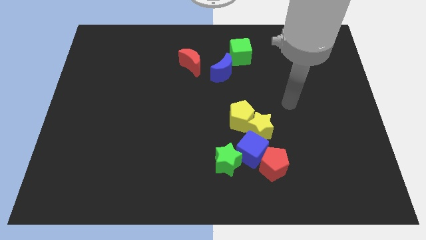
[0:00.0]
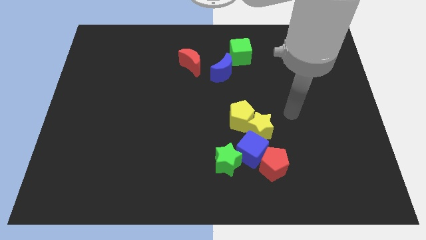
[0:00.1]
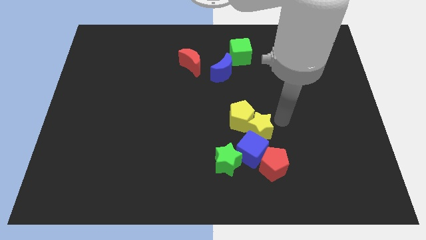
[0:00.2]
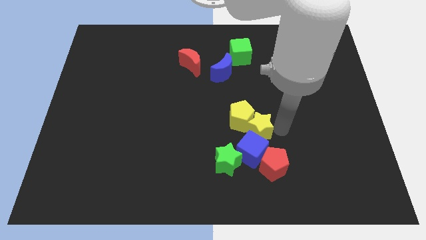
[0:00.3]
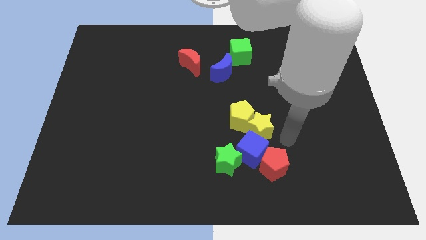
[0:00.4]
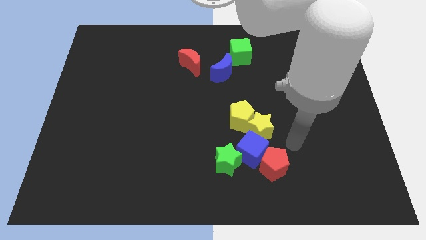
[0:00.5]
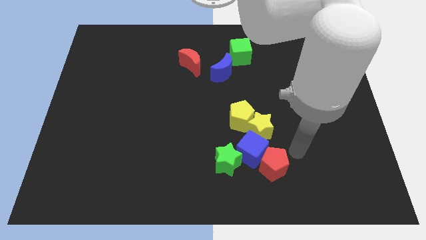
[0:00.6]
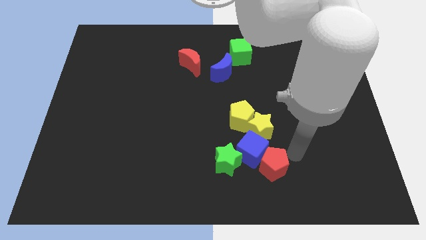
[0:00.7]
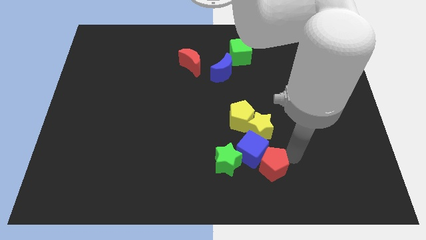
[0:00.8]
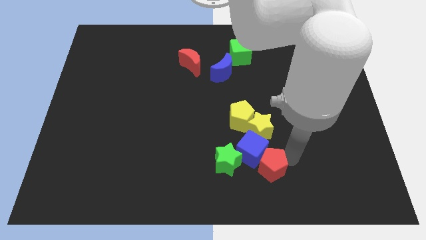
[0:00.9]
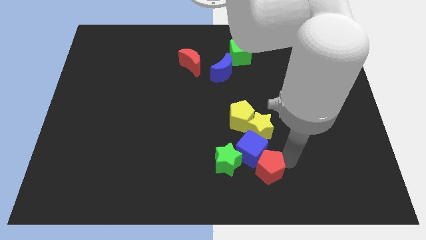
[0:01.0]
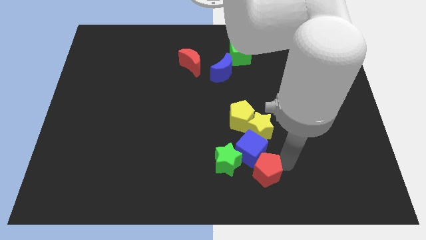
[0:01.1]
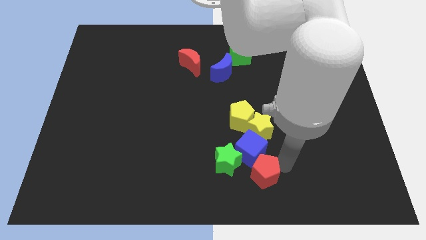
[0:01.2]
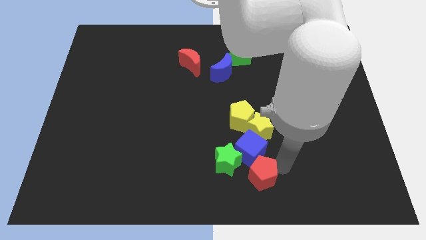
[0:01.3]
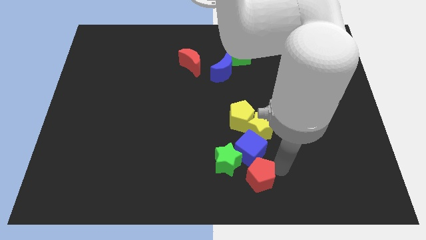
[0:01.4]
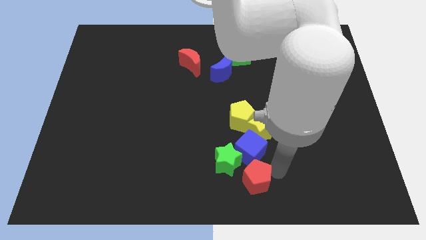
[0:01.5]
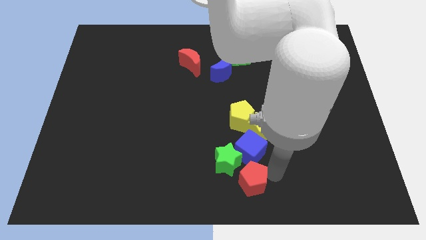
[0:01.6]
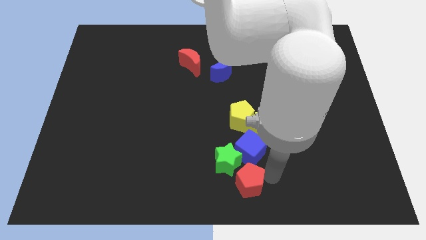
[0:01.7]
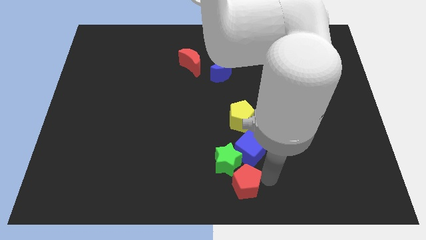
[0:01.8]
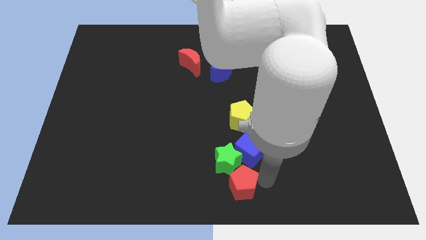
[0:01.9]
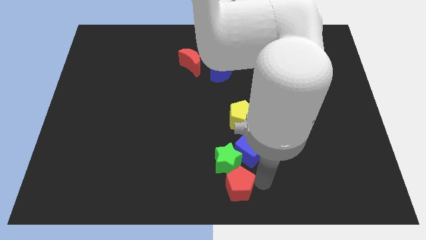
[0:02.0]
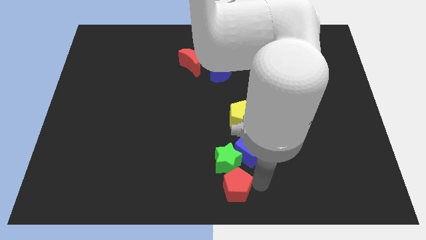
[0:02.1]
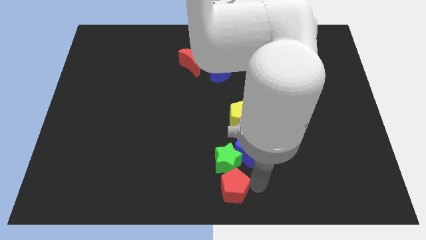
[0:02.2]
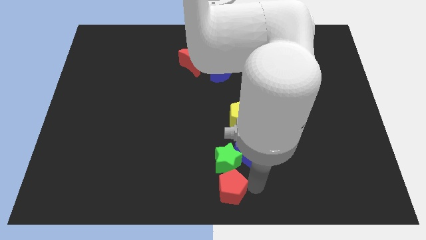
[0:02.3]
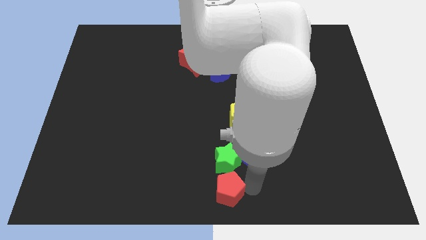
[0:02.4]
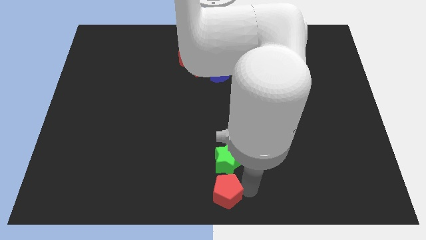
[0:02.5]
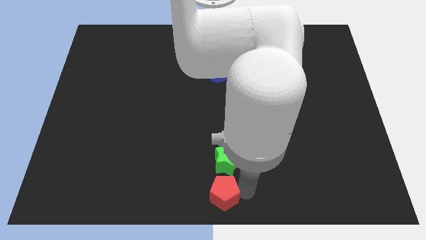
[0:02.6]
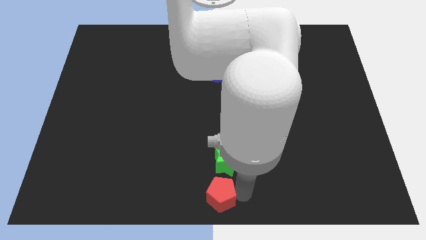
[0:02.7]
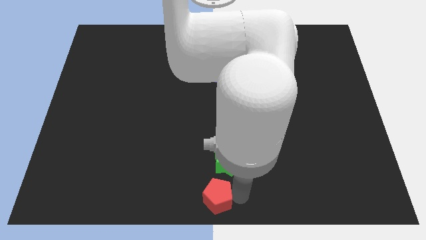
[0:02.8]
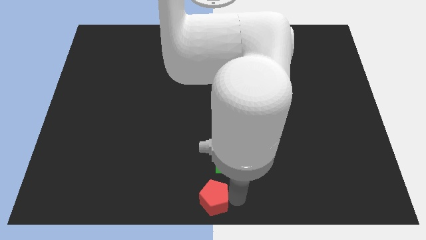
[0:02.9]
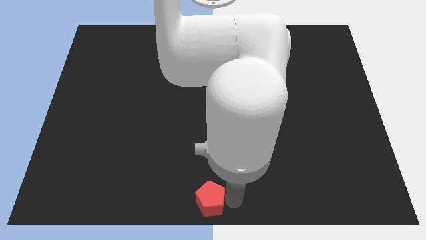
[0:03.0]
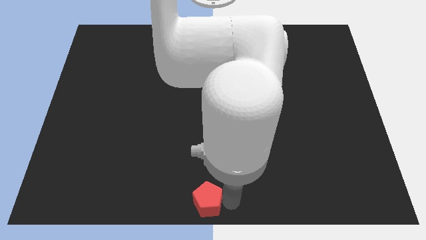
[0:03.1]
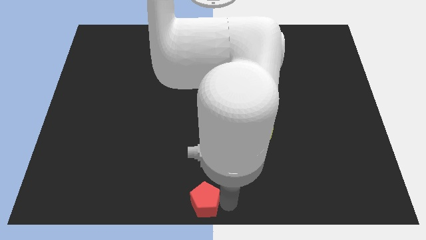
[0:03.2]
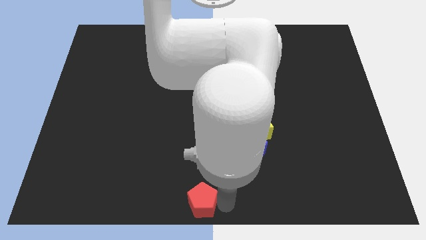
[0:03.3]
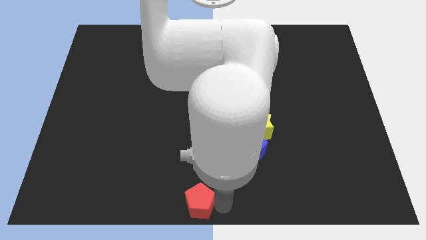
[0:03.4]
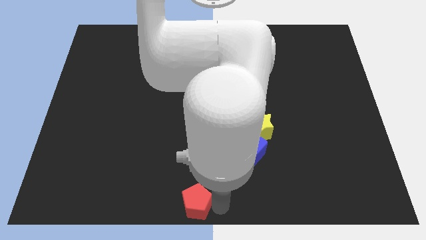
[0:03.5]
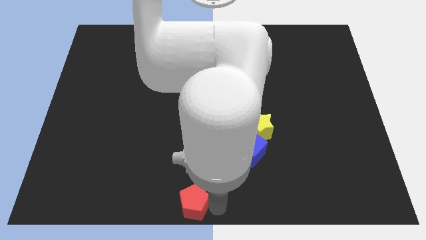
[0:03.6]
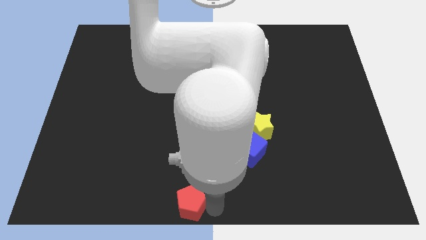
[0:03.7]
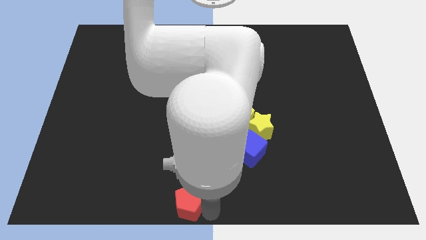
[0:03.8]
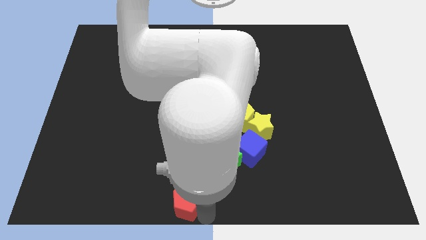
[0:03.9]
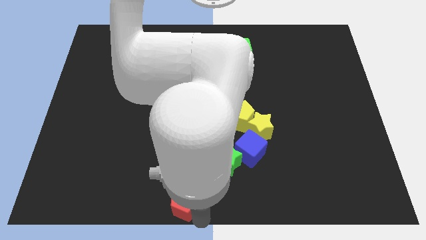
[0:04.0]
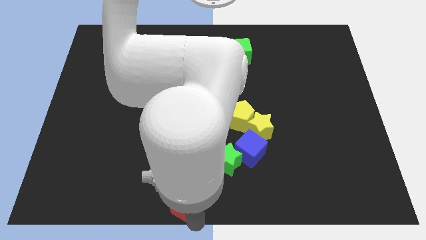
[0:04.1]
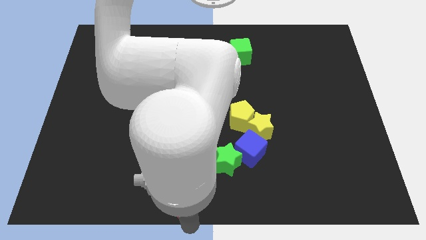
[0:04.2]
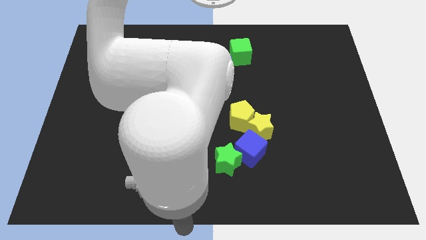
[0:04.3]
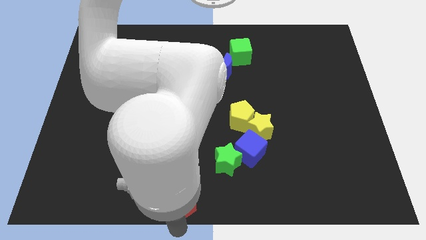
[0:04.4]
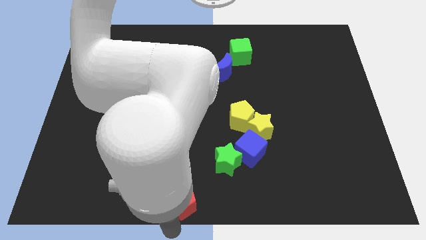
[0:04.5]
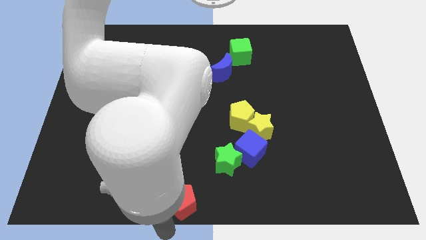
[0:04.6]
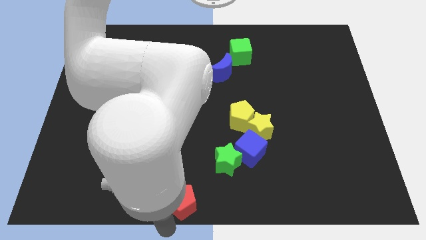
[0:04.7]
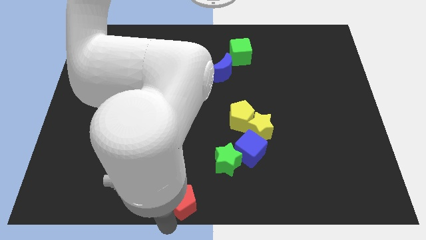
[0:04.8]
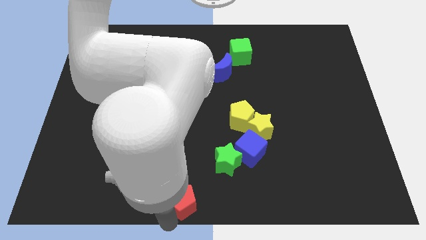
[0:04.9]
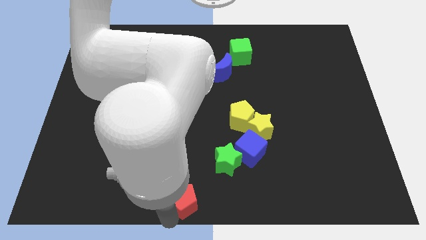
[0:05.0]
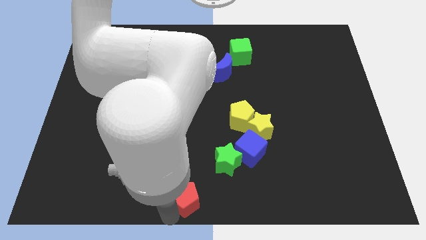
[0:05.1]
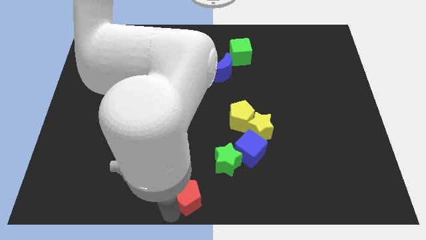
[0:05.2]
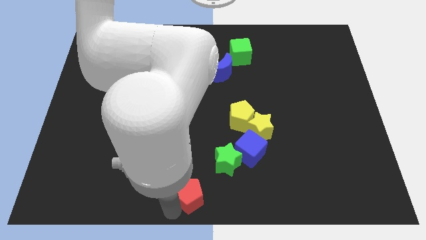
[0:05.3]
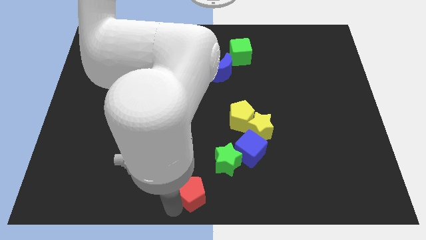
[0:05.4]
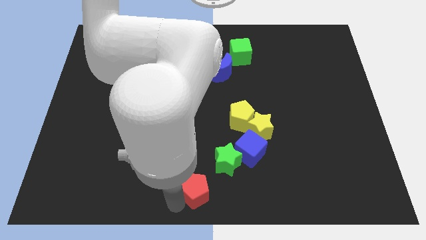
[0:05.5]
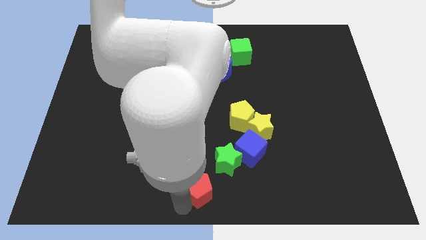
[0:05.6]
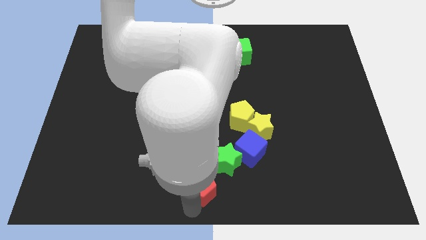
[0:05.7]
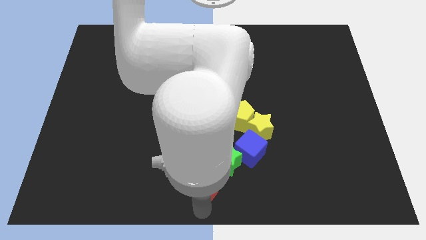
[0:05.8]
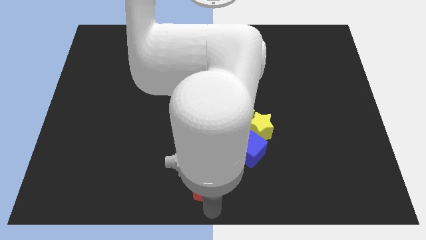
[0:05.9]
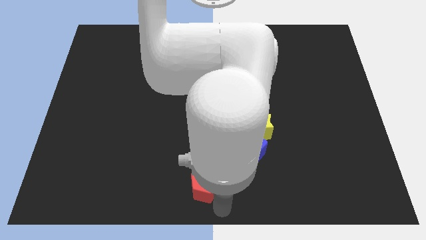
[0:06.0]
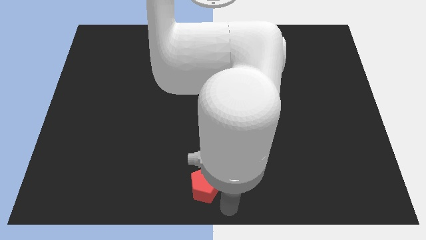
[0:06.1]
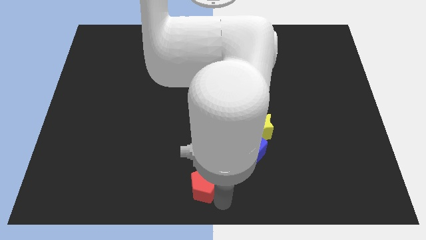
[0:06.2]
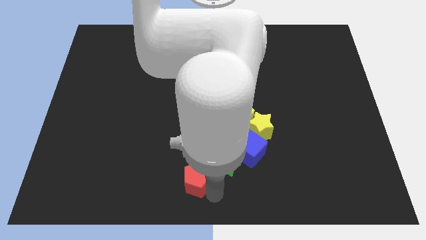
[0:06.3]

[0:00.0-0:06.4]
push the red pentagon left of the green star

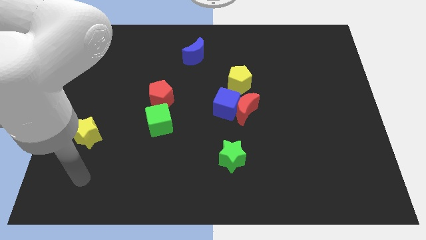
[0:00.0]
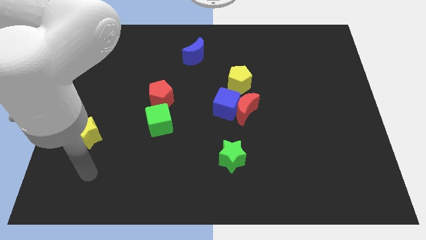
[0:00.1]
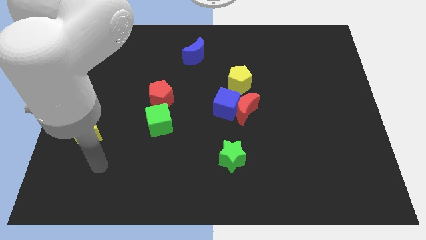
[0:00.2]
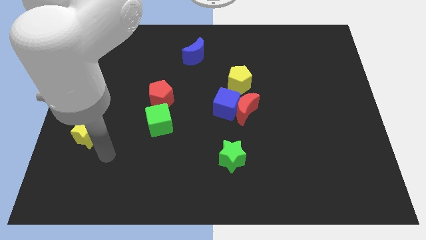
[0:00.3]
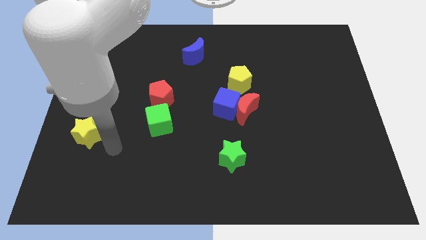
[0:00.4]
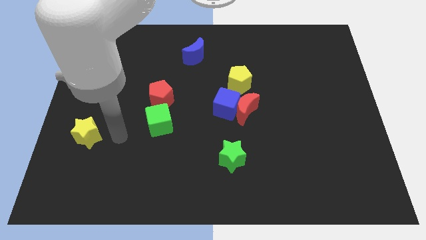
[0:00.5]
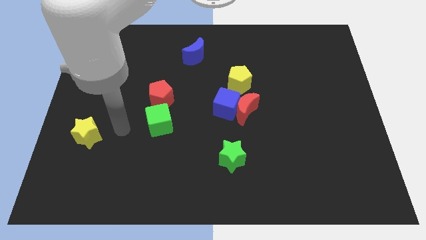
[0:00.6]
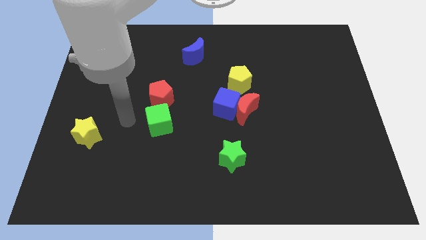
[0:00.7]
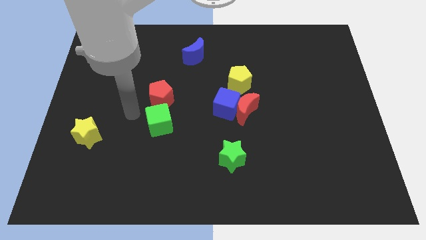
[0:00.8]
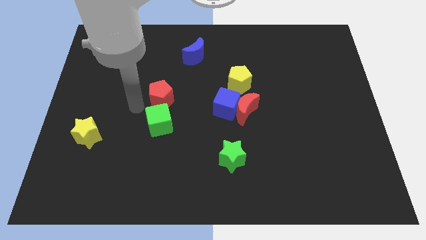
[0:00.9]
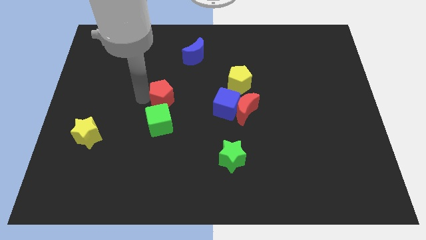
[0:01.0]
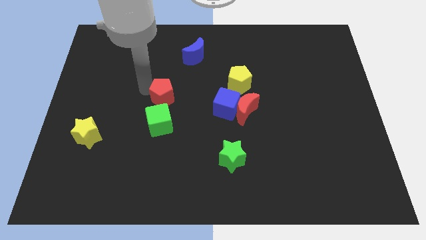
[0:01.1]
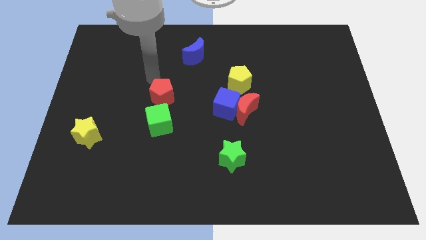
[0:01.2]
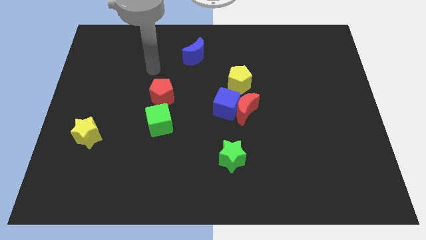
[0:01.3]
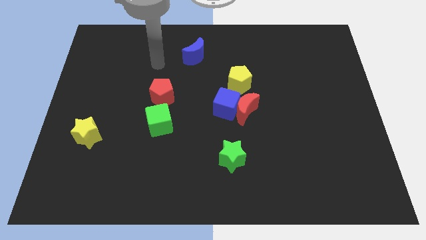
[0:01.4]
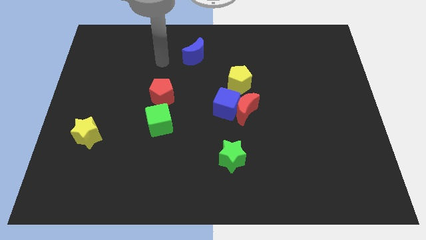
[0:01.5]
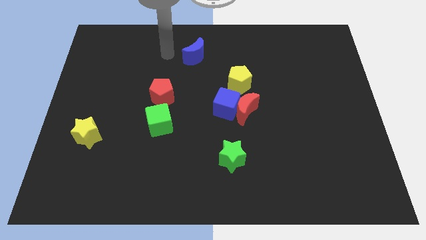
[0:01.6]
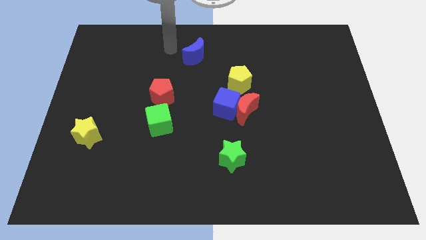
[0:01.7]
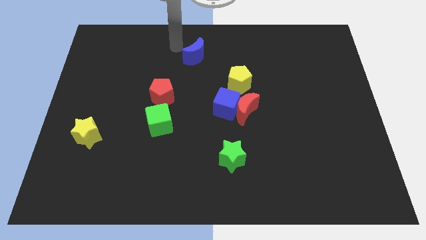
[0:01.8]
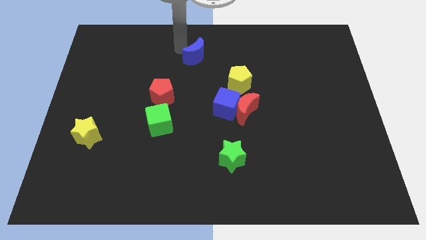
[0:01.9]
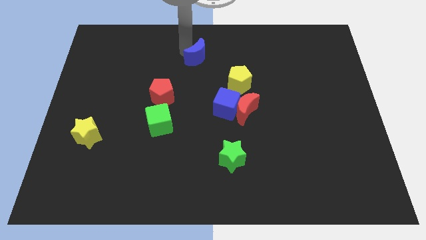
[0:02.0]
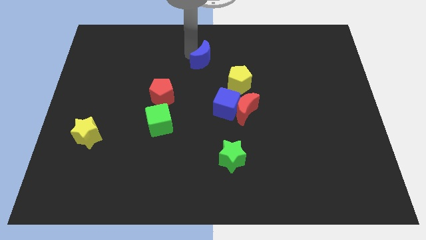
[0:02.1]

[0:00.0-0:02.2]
put the blue moon diagonally up and to the left of the yellow pentagon
